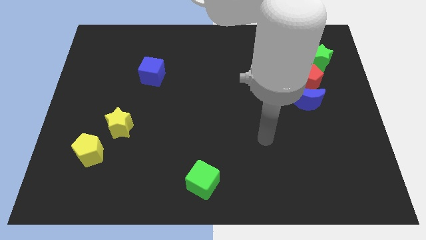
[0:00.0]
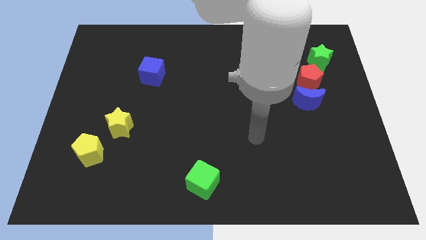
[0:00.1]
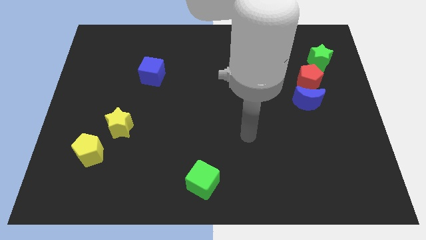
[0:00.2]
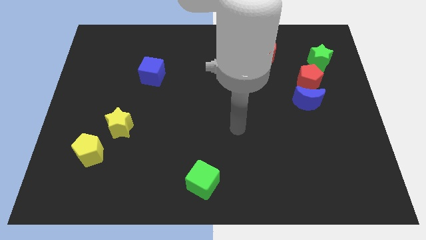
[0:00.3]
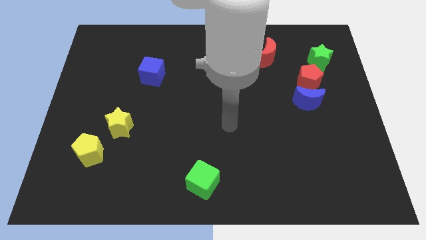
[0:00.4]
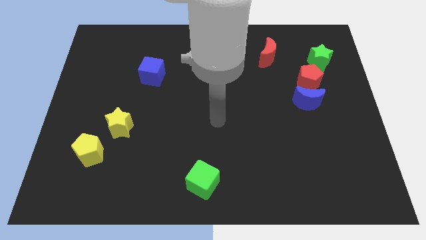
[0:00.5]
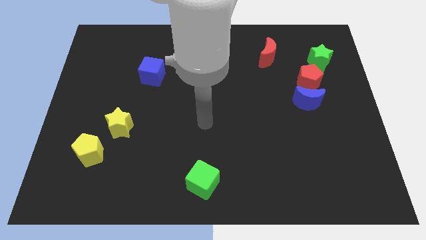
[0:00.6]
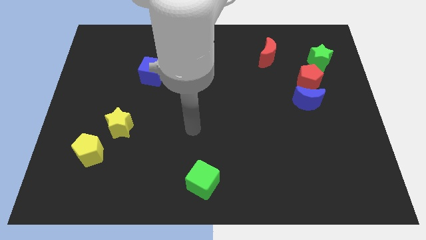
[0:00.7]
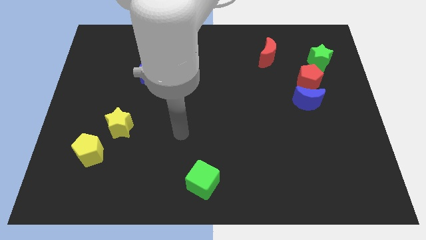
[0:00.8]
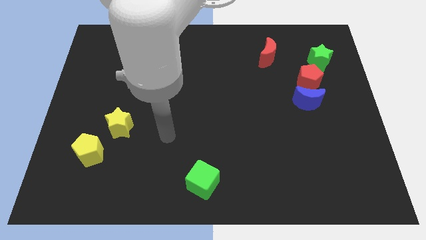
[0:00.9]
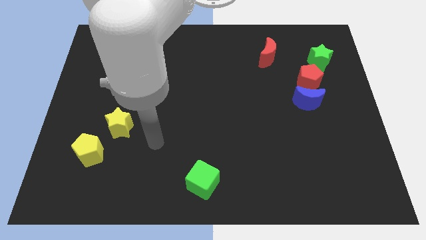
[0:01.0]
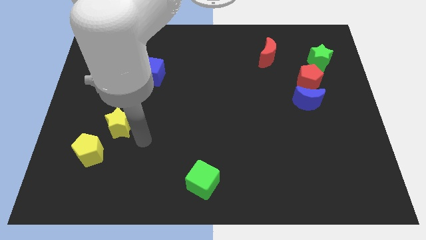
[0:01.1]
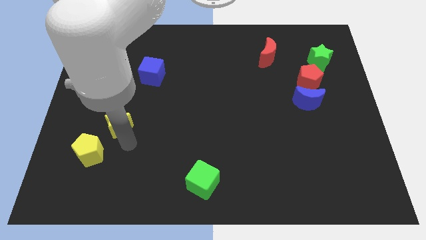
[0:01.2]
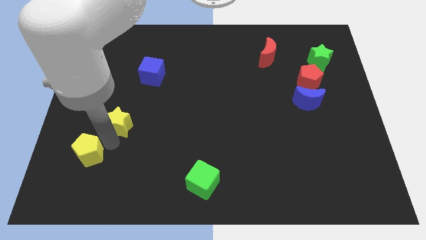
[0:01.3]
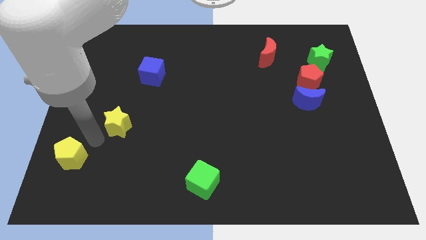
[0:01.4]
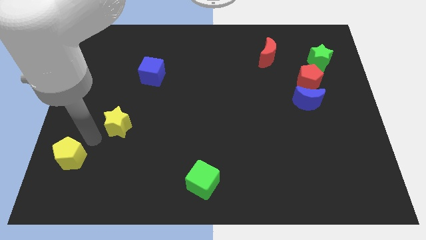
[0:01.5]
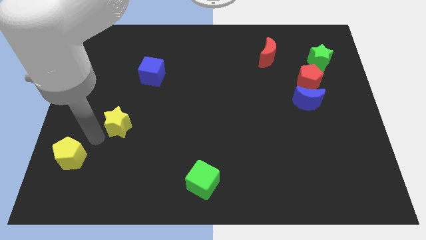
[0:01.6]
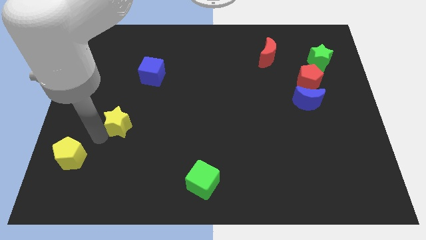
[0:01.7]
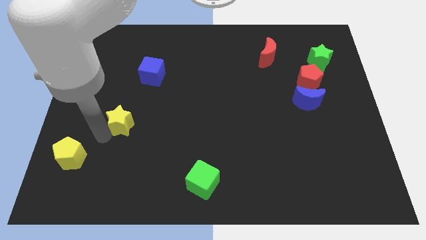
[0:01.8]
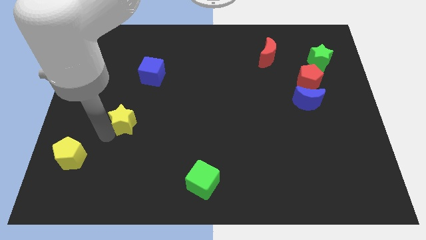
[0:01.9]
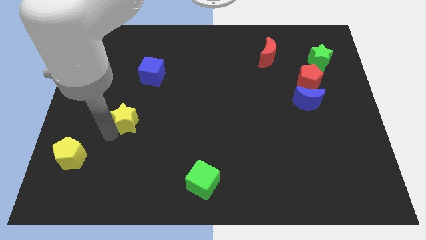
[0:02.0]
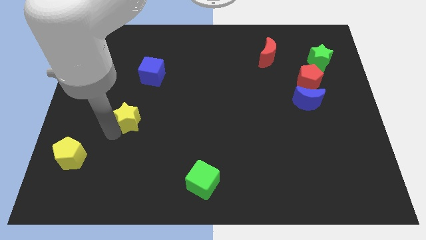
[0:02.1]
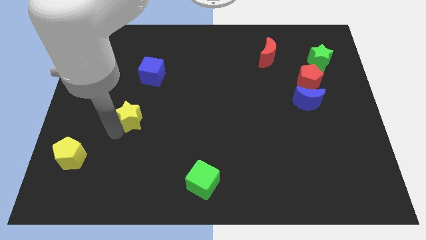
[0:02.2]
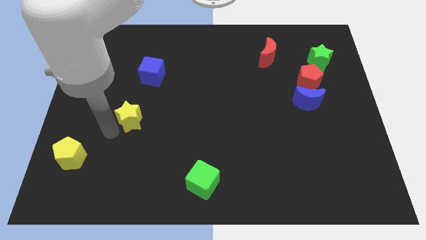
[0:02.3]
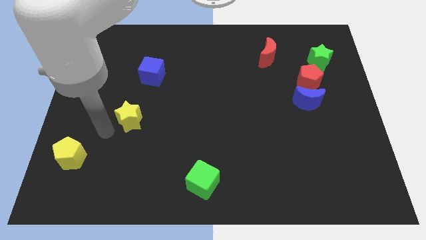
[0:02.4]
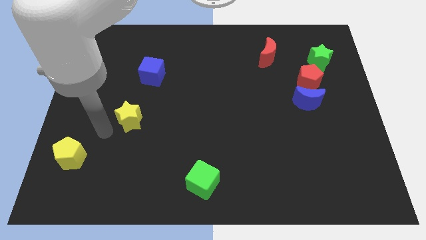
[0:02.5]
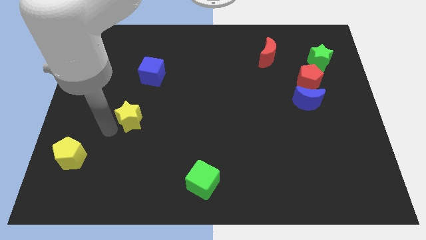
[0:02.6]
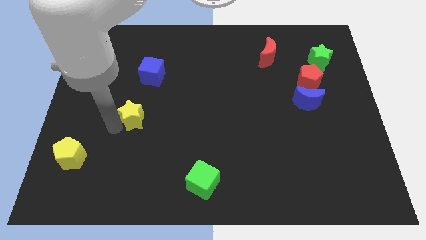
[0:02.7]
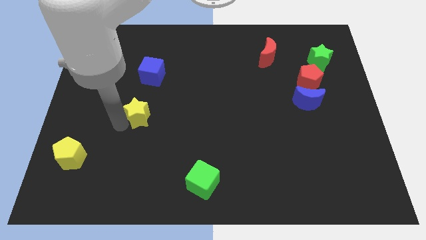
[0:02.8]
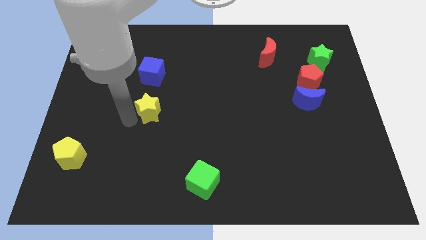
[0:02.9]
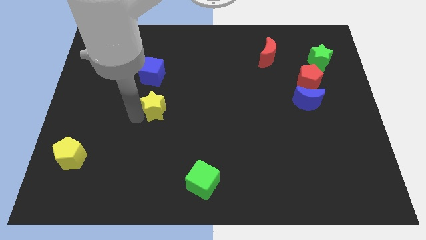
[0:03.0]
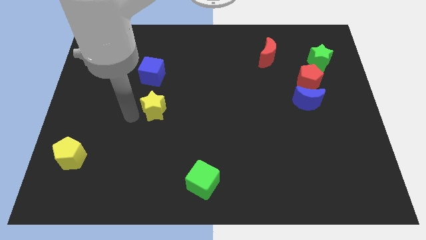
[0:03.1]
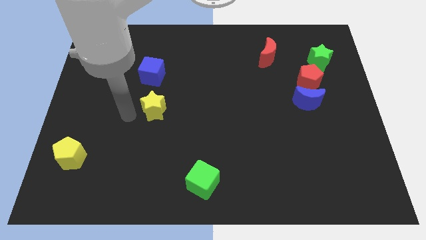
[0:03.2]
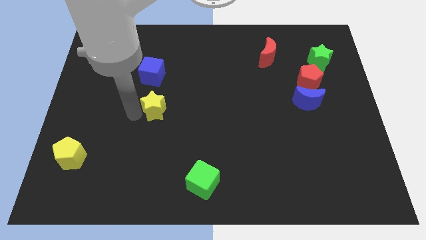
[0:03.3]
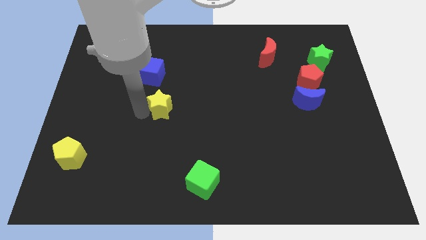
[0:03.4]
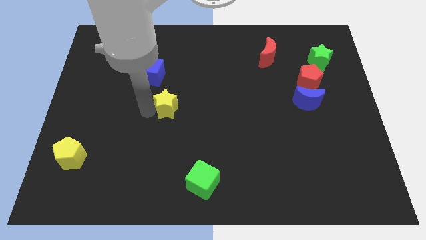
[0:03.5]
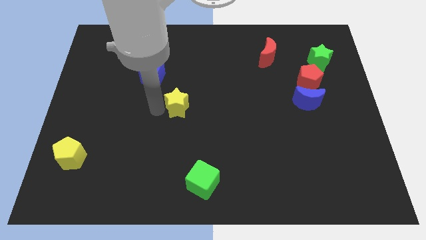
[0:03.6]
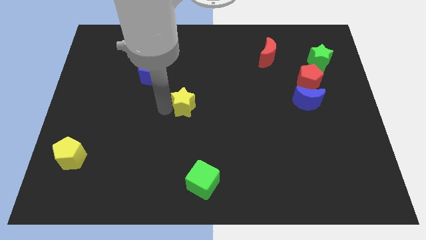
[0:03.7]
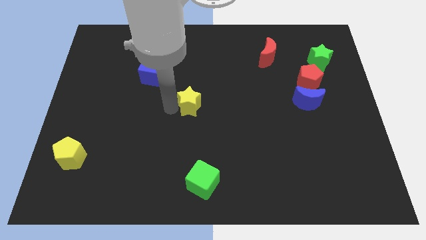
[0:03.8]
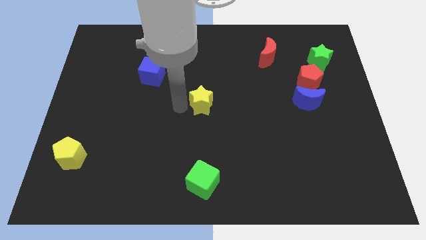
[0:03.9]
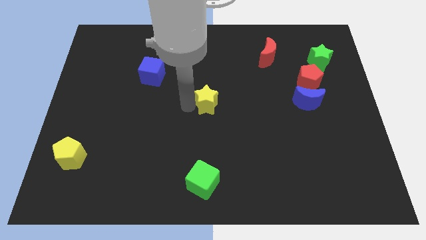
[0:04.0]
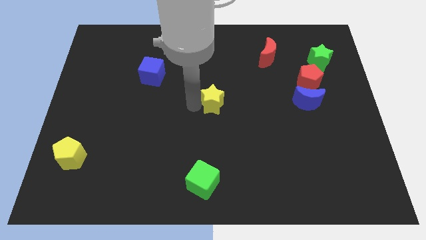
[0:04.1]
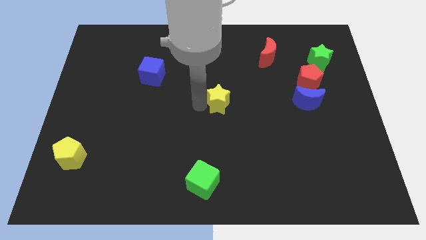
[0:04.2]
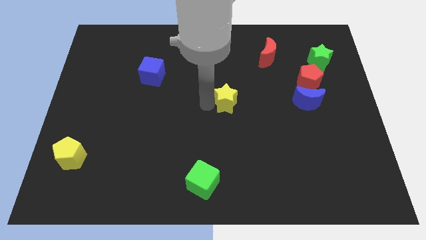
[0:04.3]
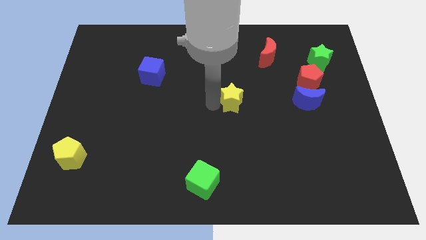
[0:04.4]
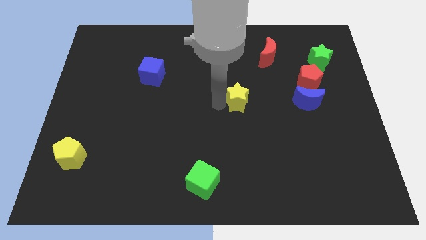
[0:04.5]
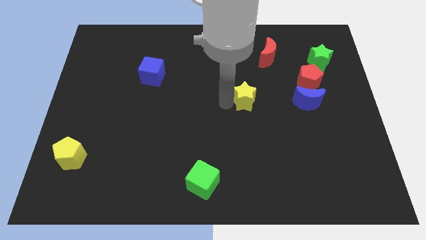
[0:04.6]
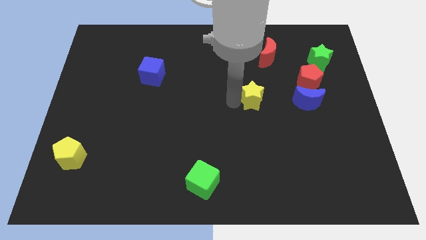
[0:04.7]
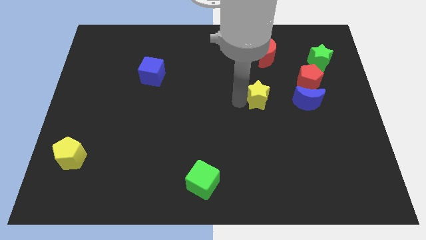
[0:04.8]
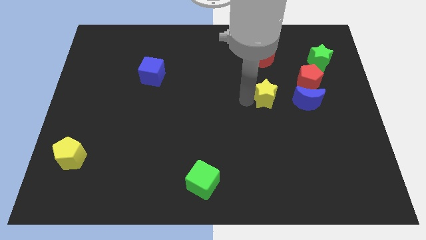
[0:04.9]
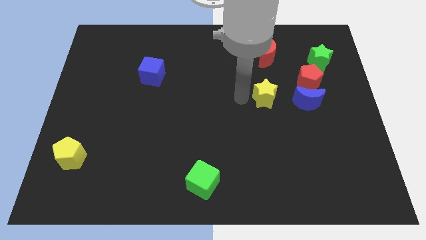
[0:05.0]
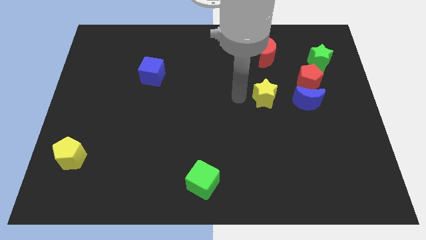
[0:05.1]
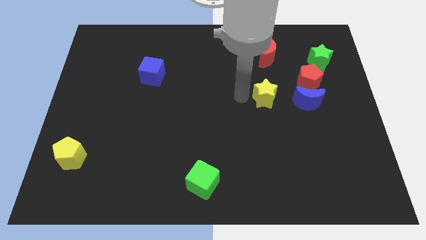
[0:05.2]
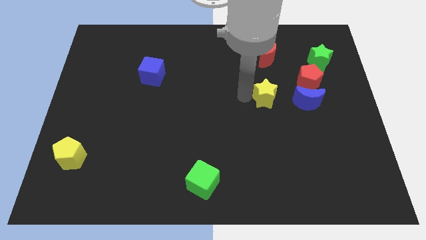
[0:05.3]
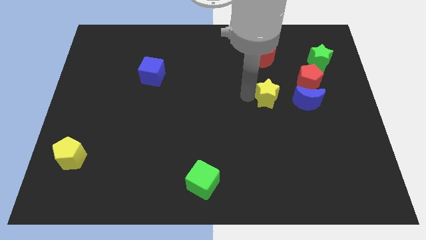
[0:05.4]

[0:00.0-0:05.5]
move the yellow star to the bottom left side of the red pentagon

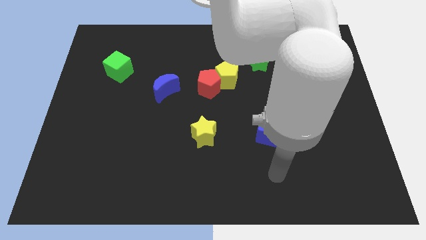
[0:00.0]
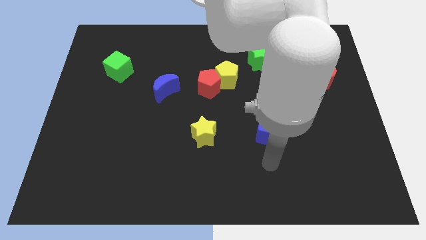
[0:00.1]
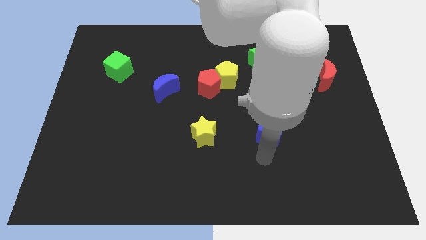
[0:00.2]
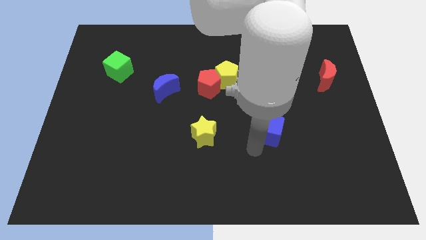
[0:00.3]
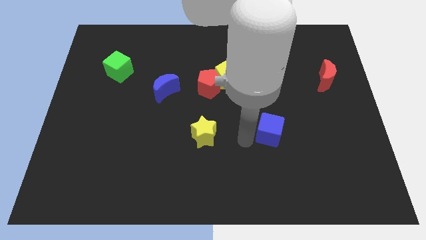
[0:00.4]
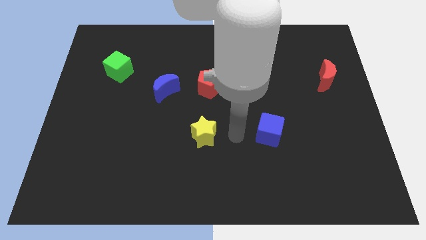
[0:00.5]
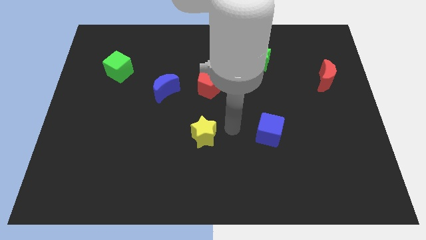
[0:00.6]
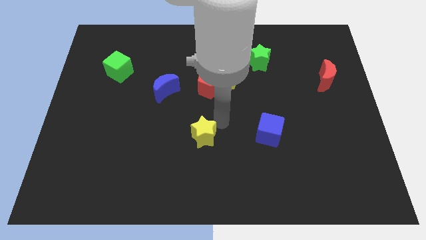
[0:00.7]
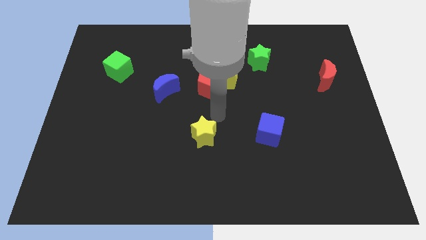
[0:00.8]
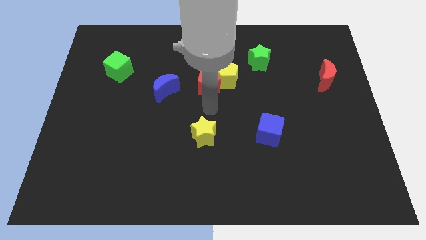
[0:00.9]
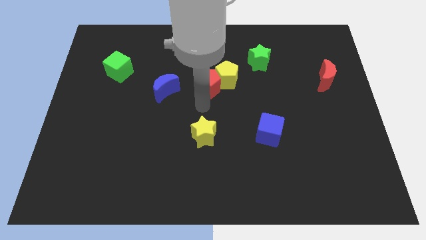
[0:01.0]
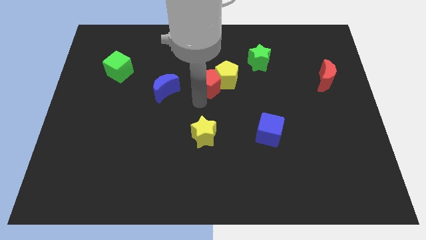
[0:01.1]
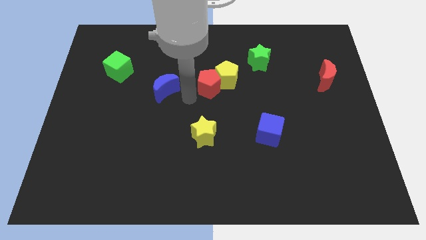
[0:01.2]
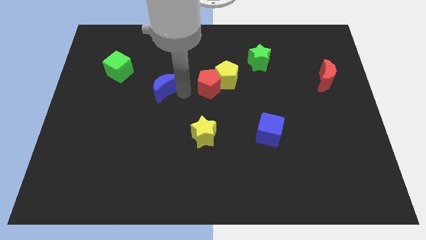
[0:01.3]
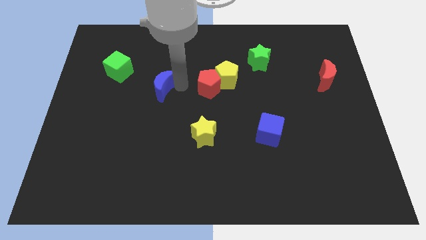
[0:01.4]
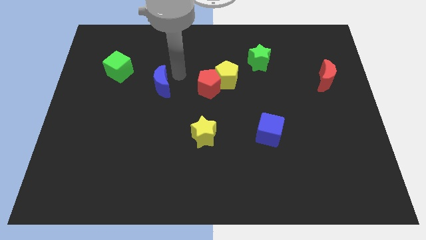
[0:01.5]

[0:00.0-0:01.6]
move the green cube left of the blue moon
